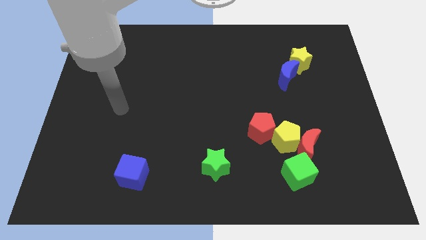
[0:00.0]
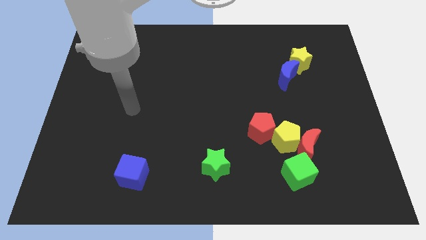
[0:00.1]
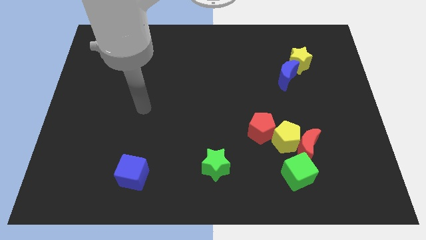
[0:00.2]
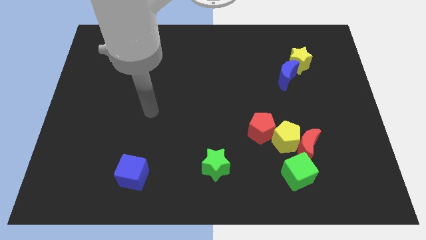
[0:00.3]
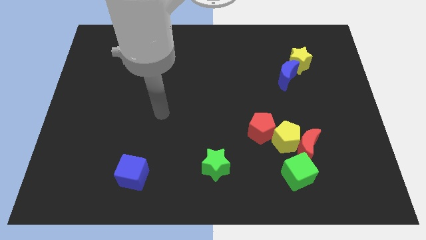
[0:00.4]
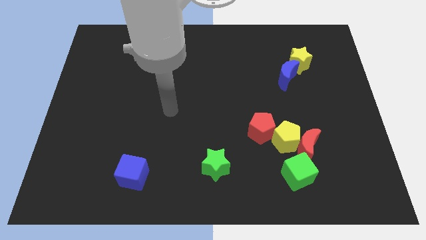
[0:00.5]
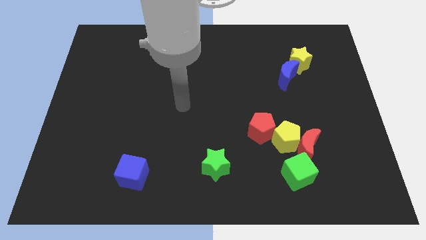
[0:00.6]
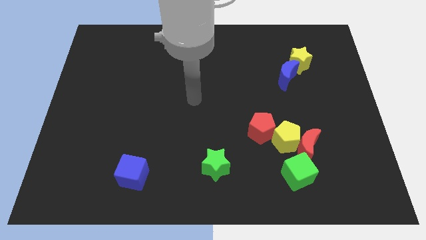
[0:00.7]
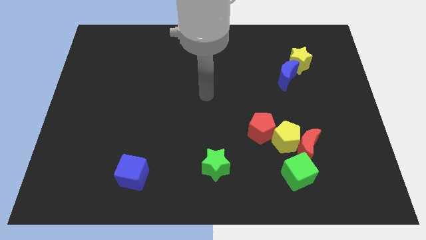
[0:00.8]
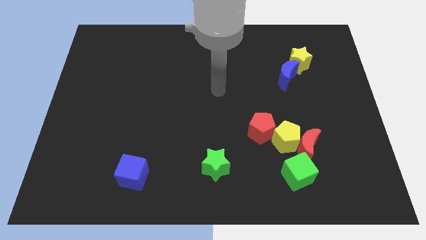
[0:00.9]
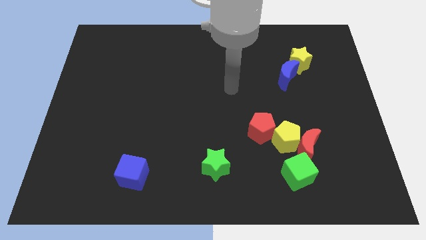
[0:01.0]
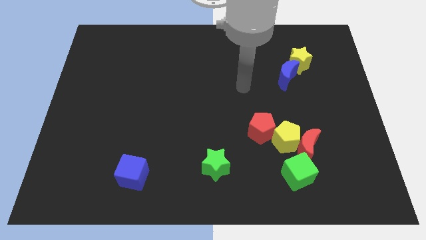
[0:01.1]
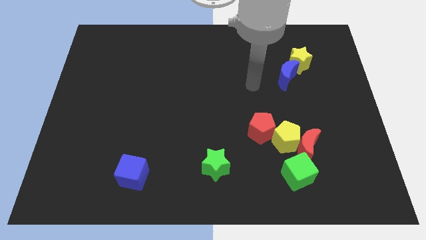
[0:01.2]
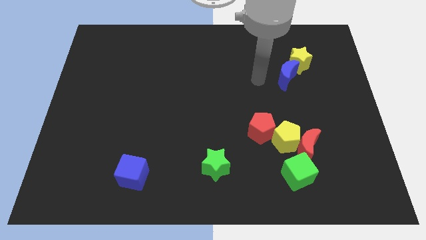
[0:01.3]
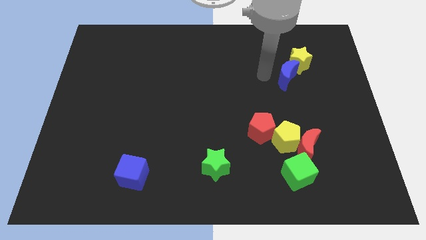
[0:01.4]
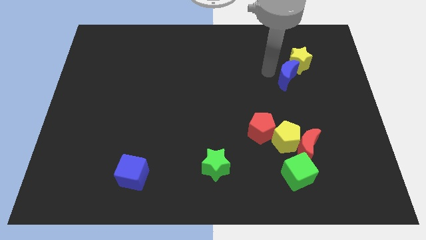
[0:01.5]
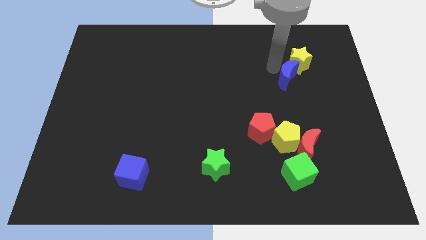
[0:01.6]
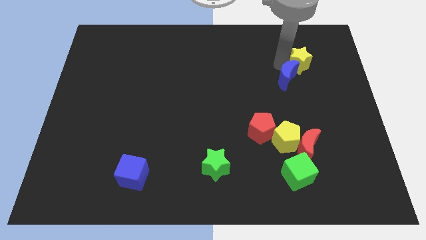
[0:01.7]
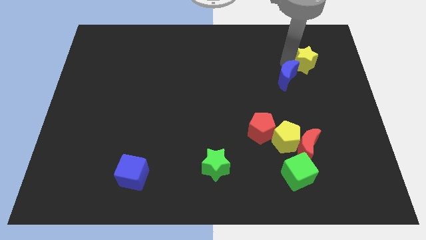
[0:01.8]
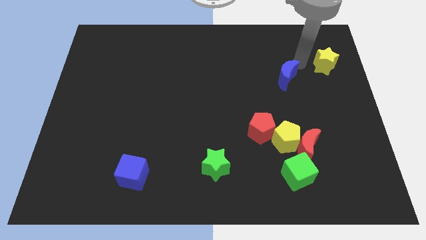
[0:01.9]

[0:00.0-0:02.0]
separate the blue moon from the yellow star

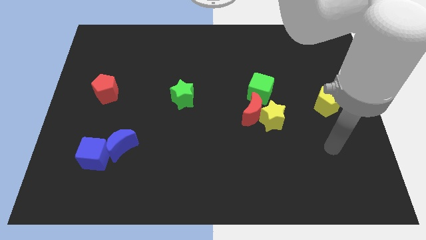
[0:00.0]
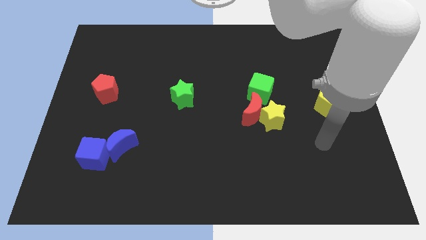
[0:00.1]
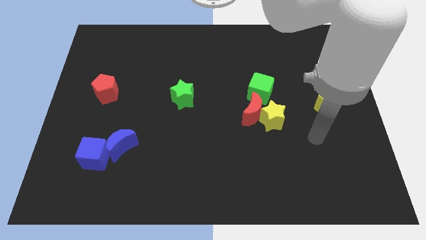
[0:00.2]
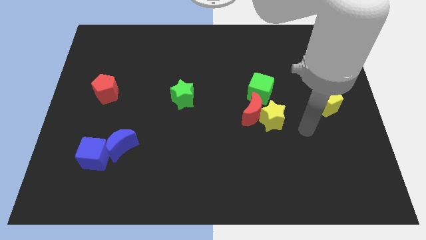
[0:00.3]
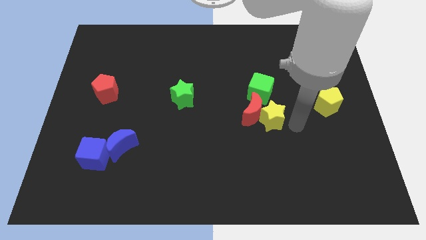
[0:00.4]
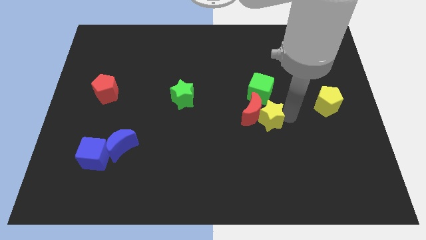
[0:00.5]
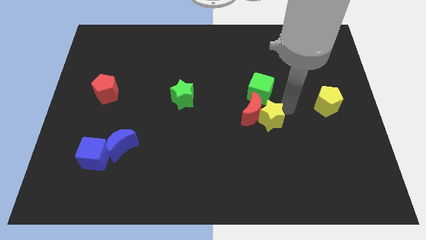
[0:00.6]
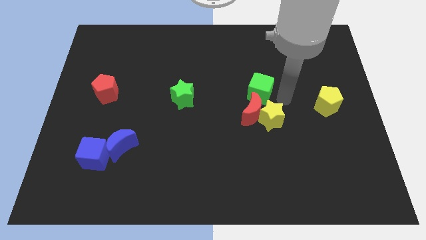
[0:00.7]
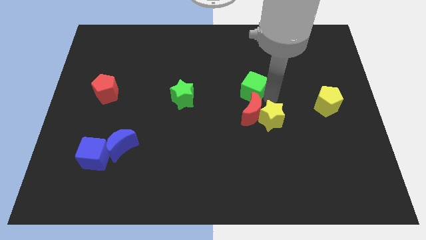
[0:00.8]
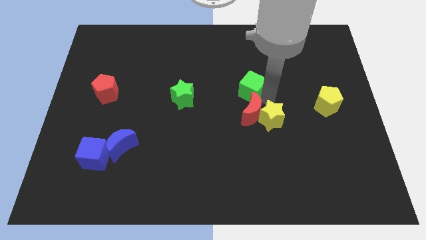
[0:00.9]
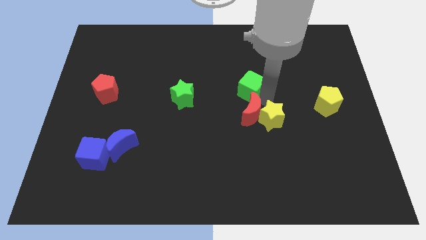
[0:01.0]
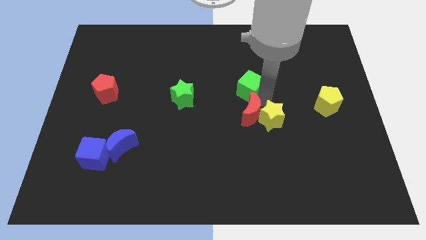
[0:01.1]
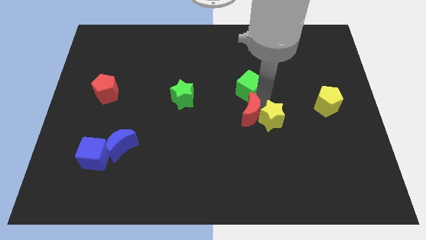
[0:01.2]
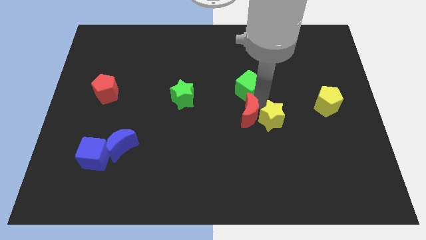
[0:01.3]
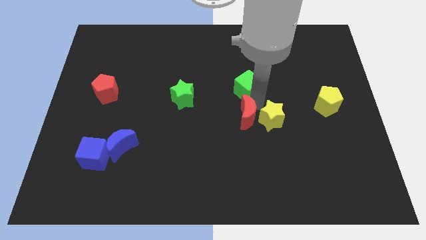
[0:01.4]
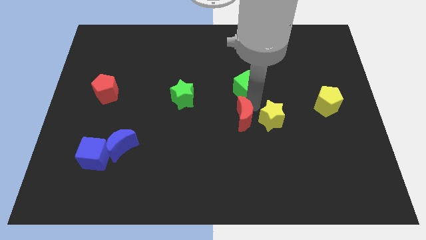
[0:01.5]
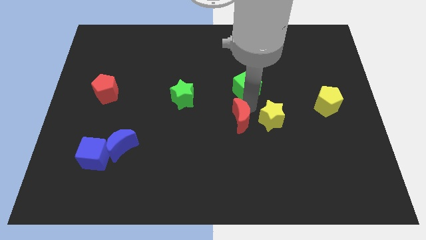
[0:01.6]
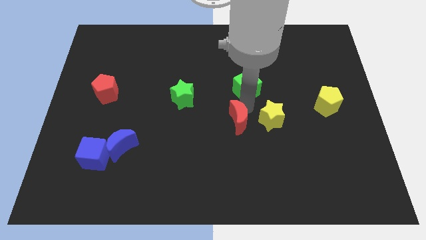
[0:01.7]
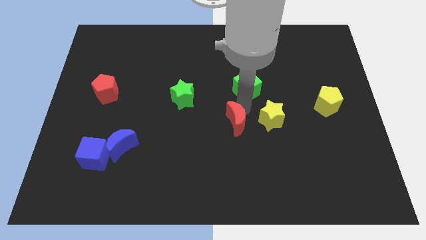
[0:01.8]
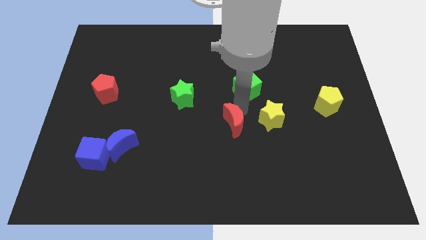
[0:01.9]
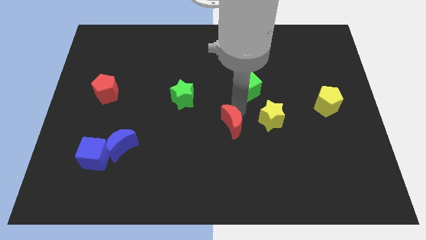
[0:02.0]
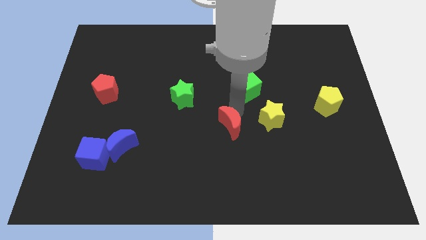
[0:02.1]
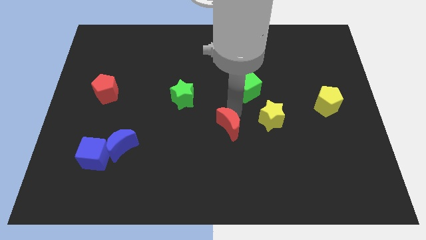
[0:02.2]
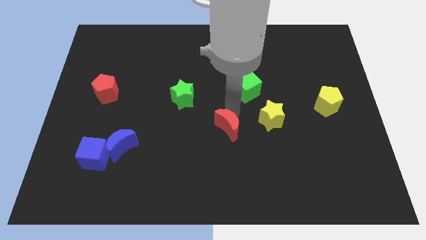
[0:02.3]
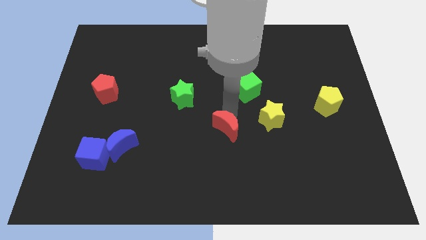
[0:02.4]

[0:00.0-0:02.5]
move the red moon away from the yellow star and green cube

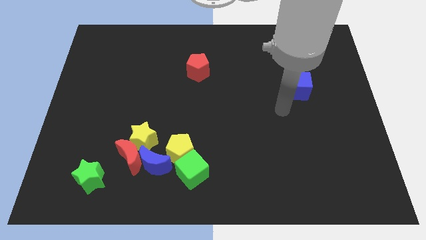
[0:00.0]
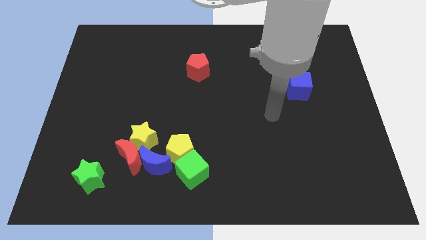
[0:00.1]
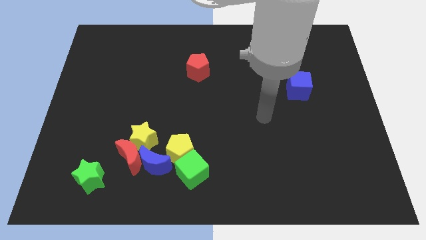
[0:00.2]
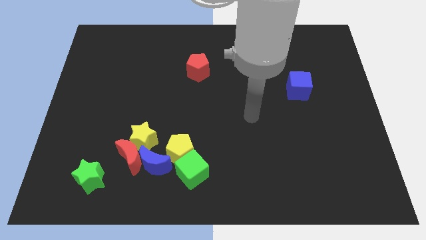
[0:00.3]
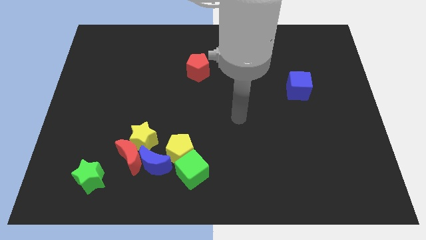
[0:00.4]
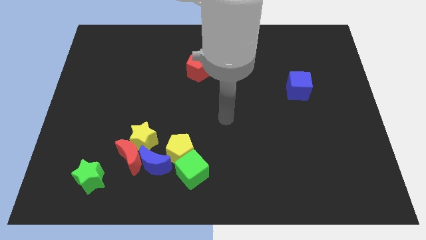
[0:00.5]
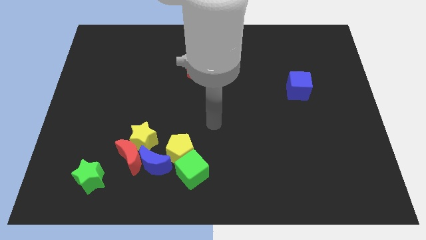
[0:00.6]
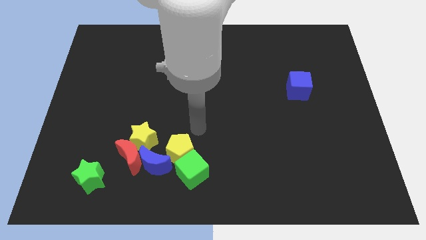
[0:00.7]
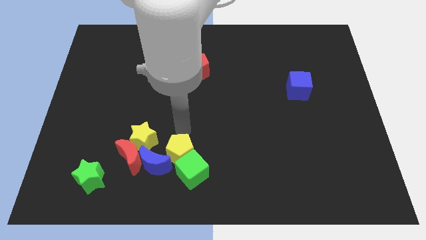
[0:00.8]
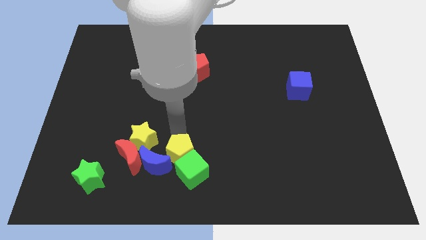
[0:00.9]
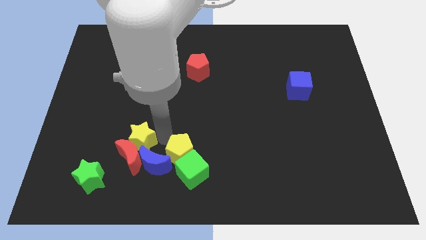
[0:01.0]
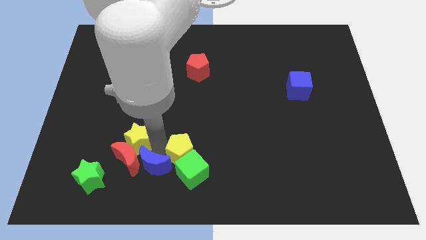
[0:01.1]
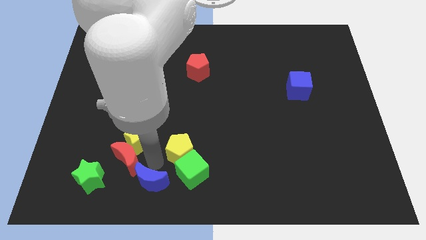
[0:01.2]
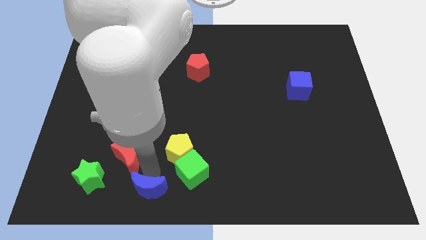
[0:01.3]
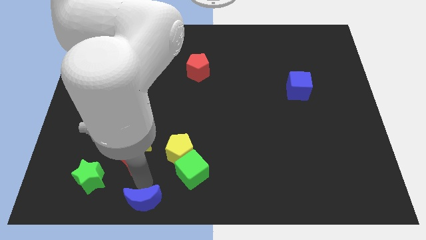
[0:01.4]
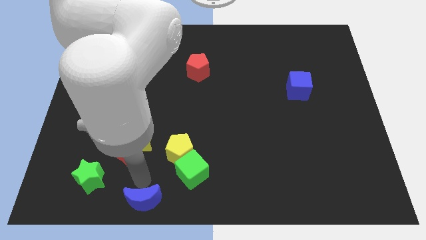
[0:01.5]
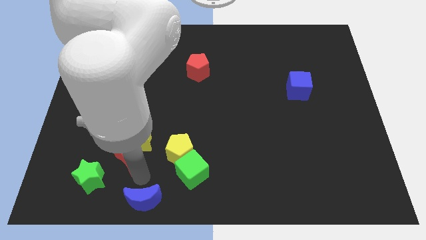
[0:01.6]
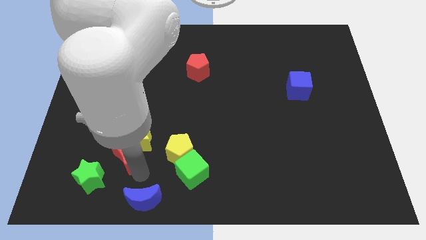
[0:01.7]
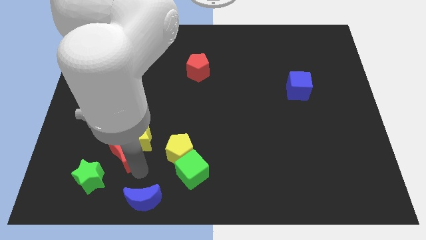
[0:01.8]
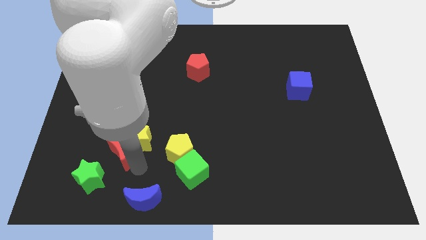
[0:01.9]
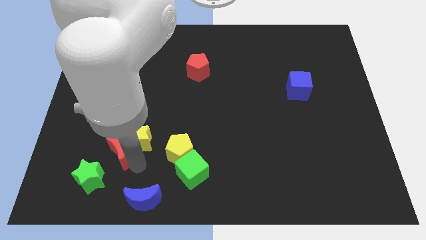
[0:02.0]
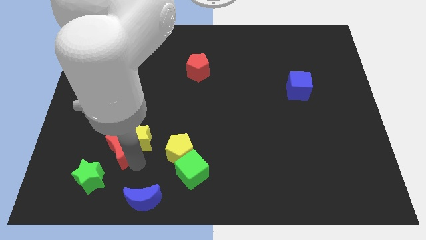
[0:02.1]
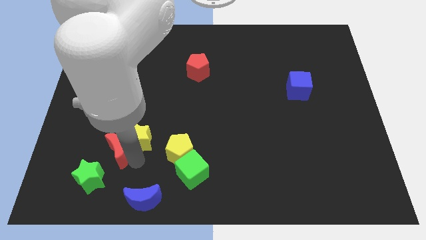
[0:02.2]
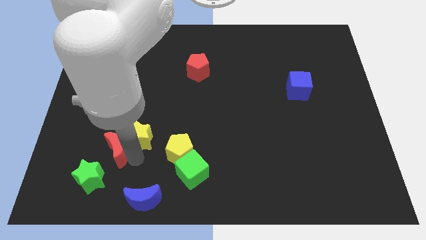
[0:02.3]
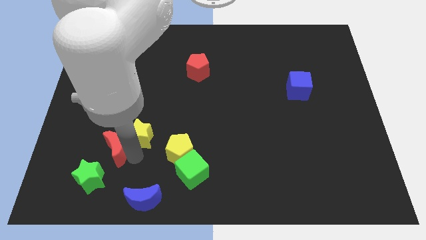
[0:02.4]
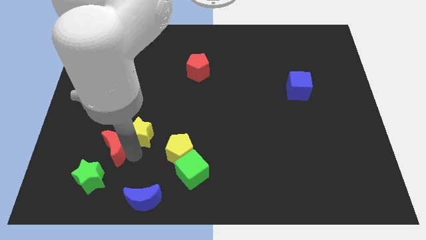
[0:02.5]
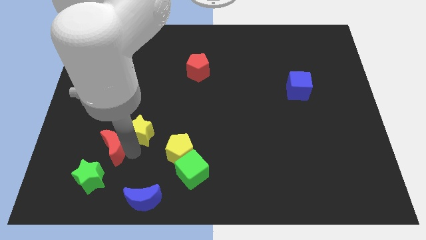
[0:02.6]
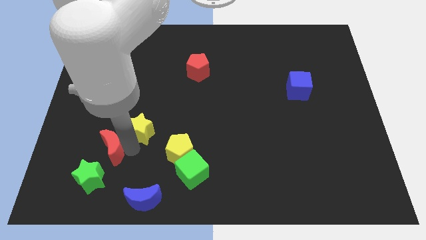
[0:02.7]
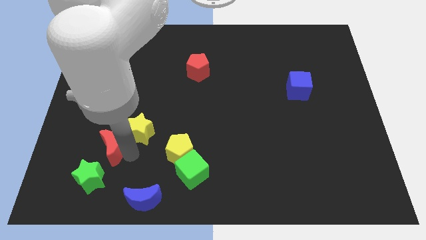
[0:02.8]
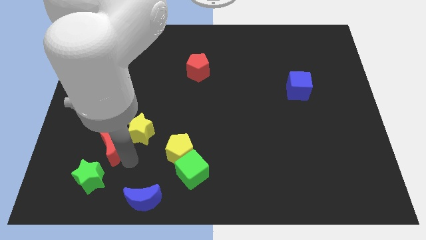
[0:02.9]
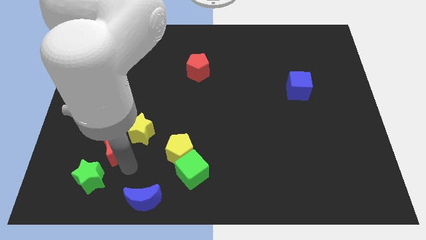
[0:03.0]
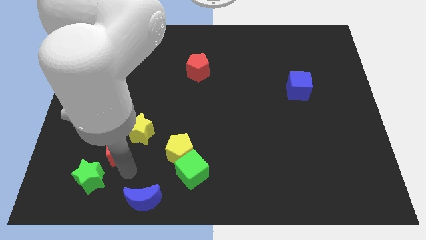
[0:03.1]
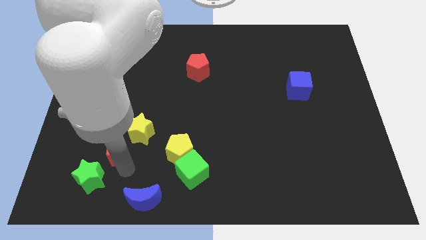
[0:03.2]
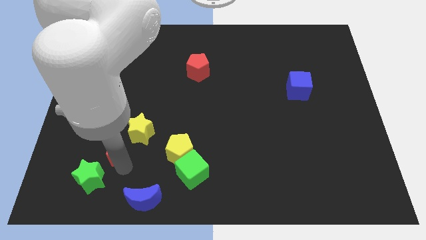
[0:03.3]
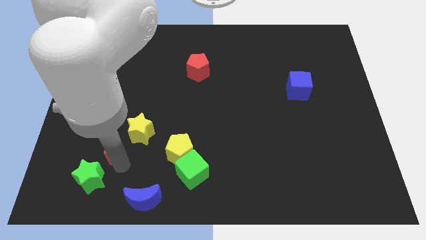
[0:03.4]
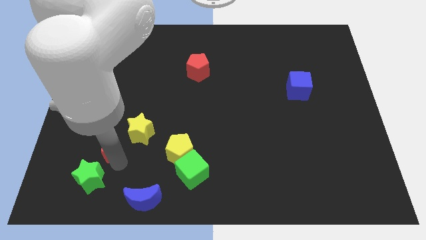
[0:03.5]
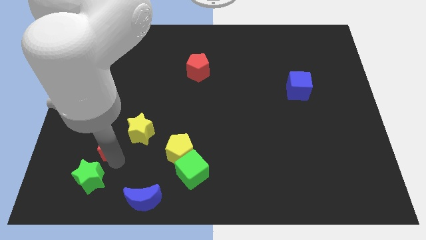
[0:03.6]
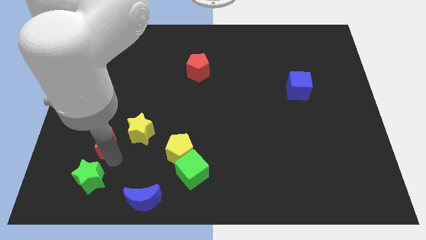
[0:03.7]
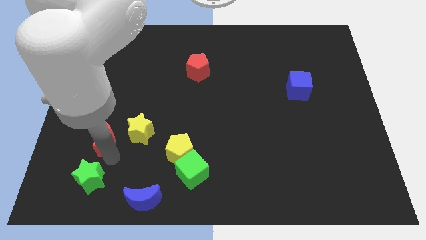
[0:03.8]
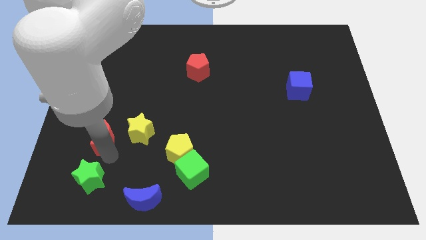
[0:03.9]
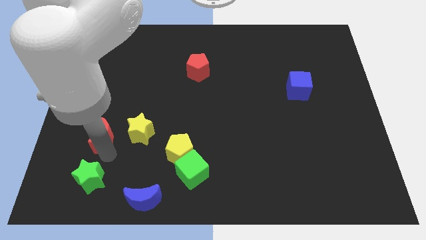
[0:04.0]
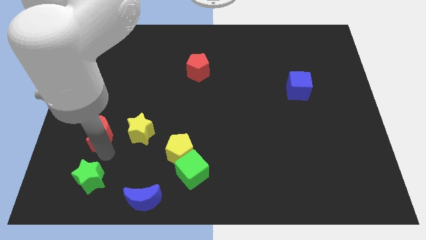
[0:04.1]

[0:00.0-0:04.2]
separate the red moon from the yellow star, blue moon, and green star

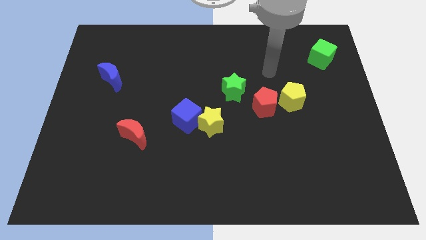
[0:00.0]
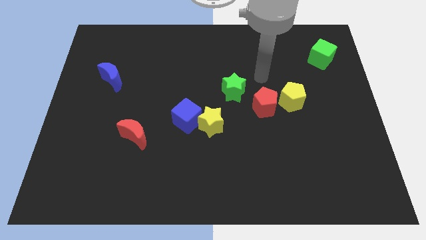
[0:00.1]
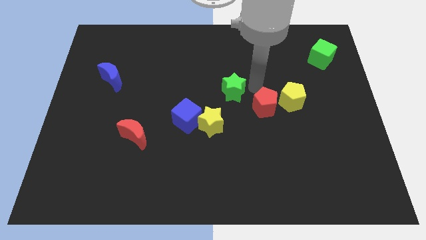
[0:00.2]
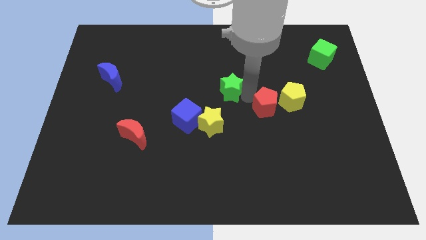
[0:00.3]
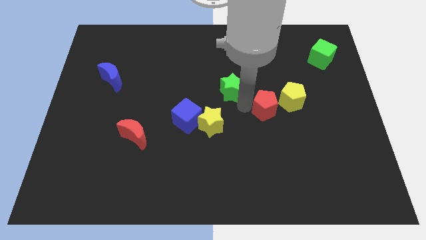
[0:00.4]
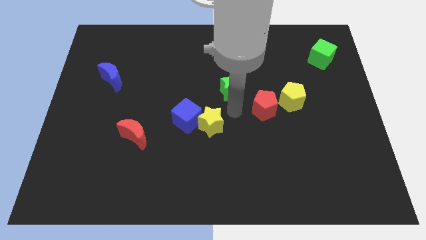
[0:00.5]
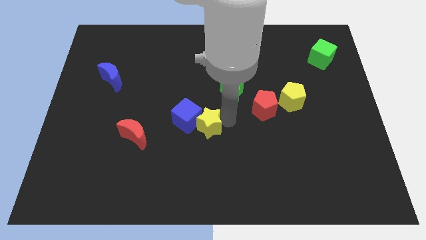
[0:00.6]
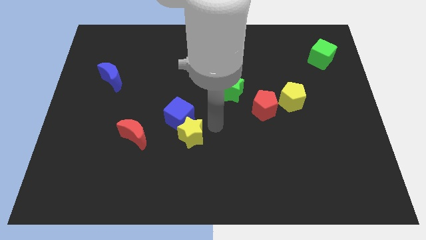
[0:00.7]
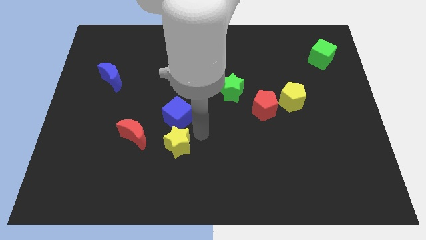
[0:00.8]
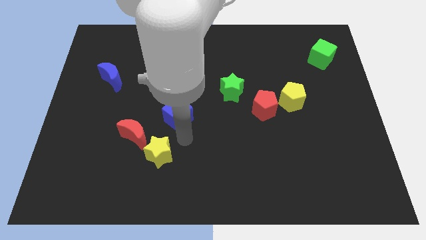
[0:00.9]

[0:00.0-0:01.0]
pull the blue cube apart from the yellow star
